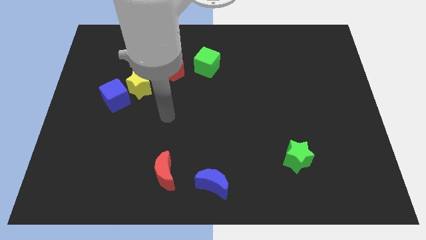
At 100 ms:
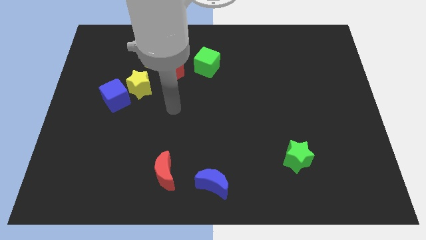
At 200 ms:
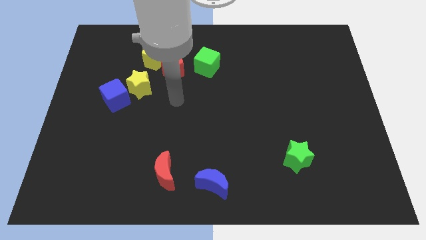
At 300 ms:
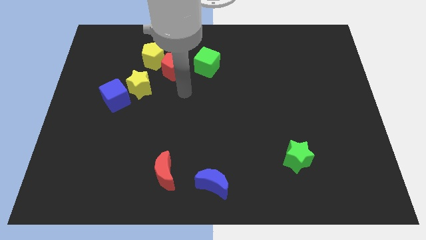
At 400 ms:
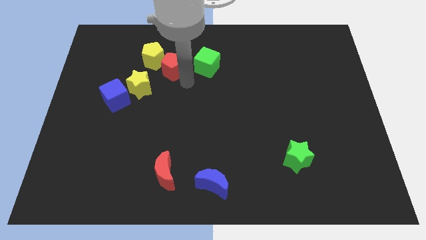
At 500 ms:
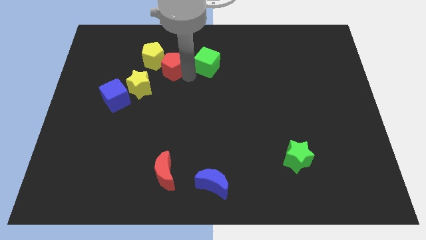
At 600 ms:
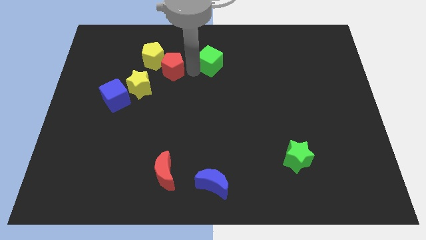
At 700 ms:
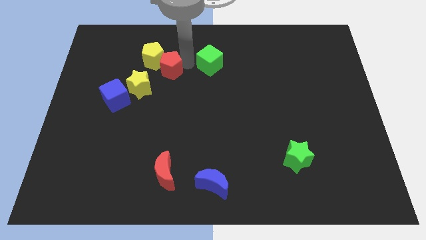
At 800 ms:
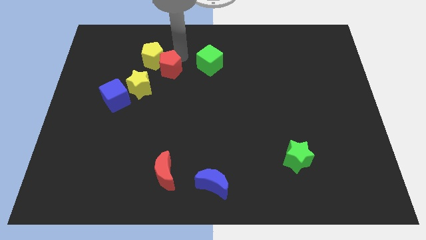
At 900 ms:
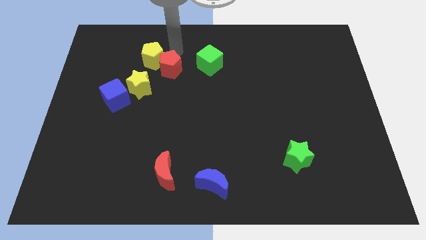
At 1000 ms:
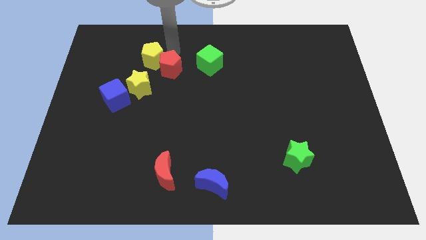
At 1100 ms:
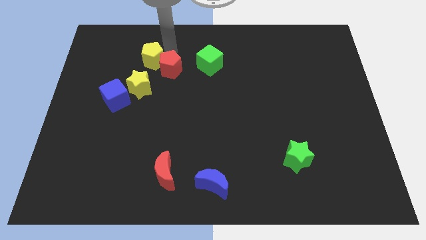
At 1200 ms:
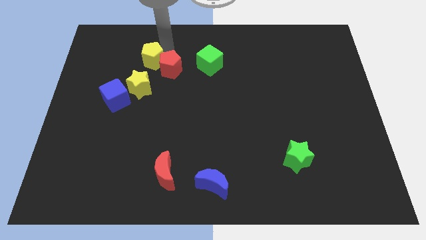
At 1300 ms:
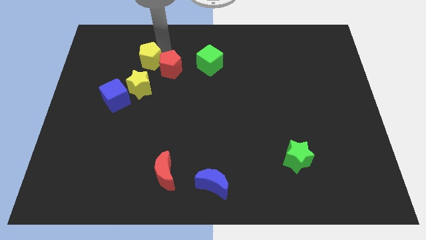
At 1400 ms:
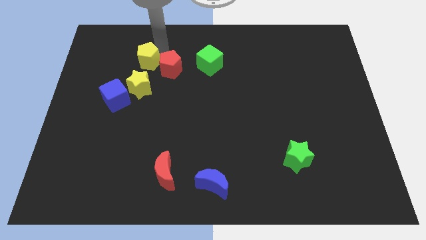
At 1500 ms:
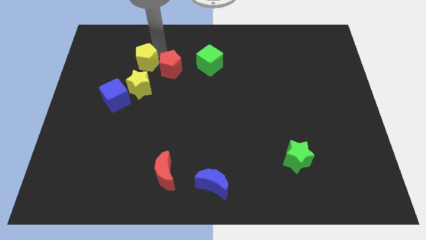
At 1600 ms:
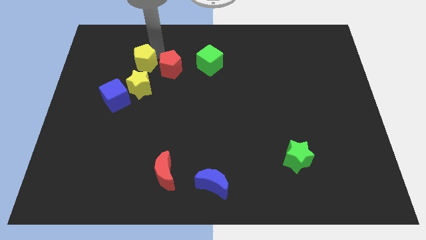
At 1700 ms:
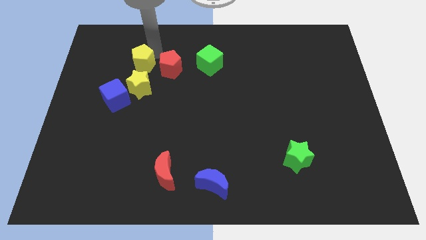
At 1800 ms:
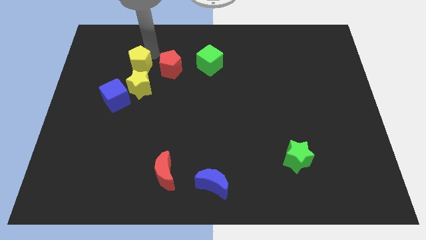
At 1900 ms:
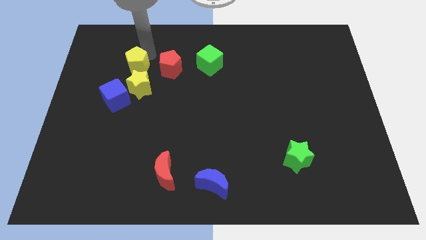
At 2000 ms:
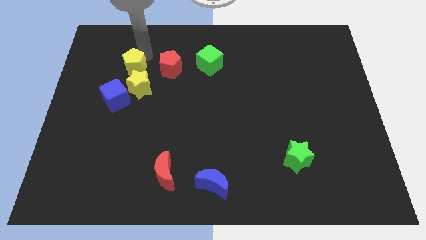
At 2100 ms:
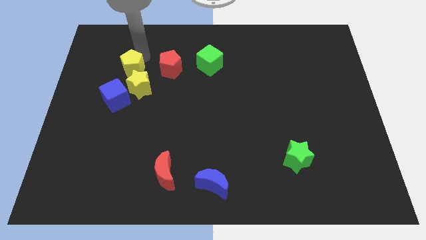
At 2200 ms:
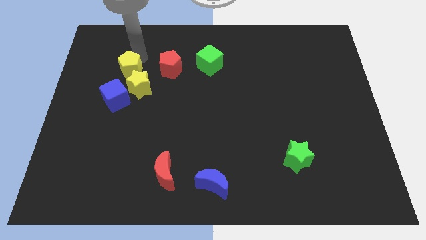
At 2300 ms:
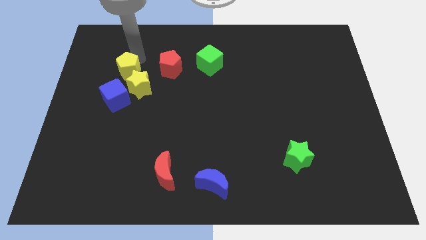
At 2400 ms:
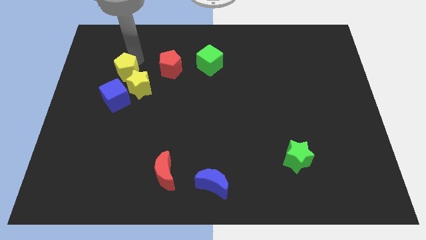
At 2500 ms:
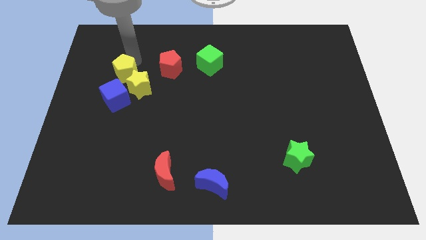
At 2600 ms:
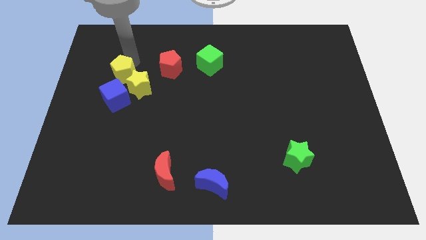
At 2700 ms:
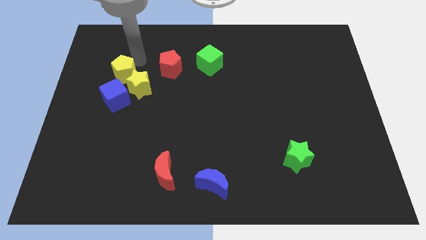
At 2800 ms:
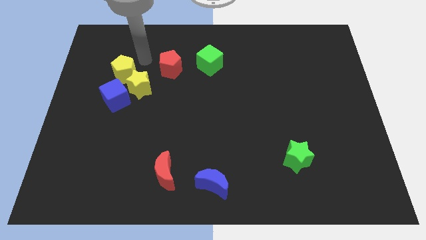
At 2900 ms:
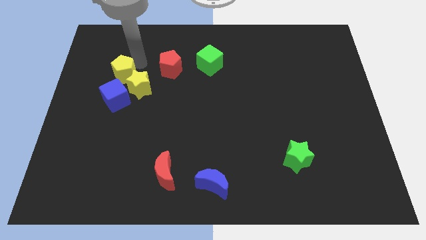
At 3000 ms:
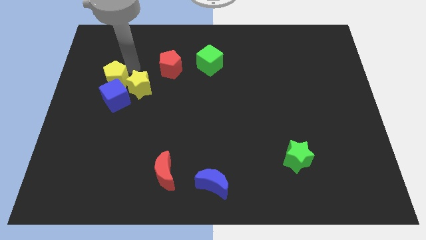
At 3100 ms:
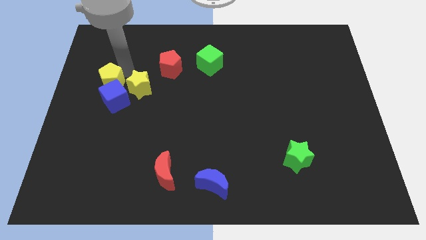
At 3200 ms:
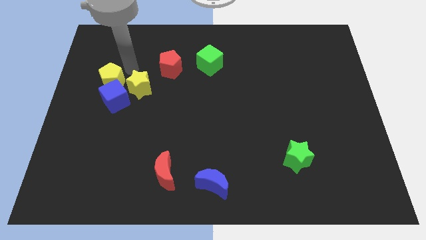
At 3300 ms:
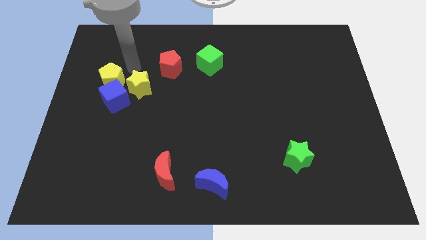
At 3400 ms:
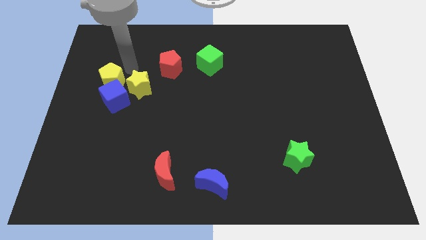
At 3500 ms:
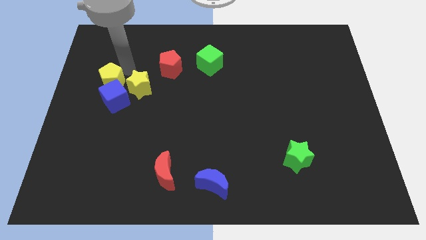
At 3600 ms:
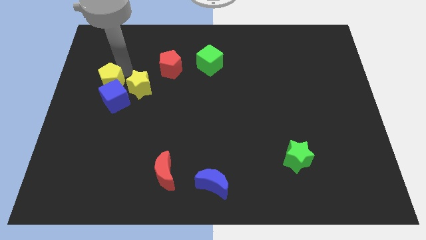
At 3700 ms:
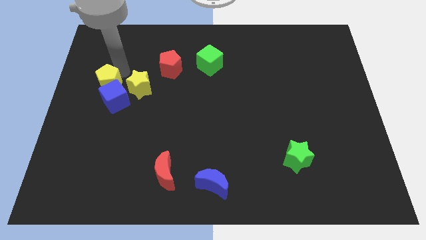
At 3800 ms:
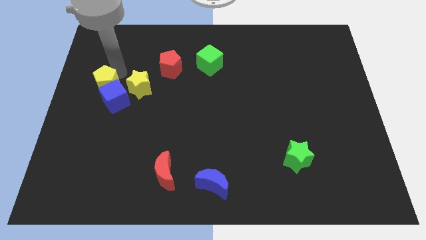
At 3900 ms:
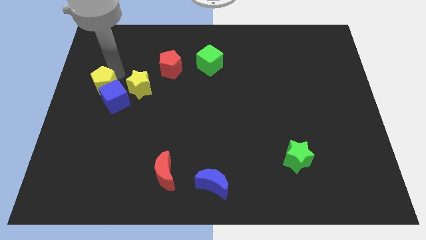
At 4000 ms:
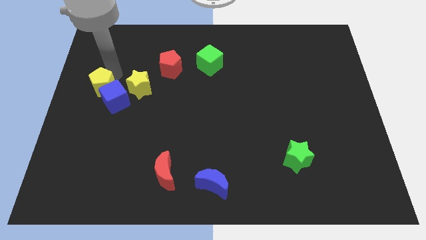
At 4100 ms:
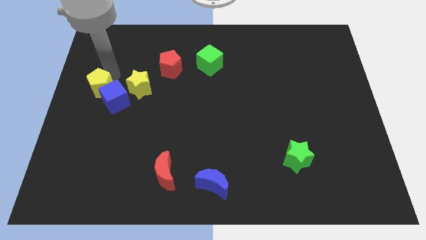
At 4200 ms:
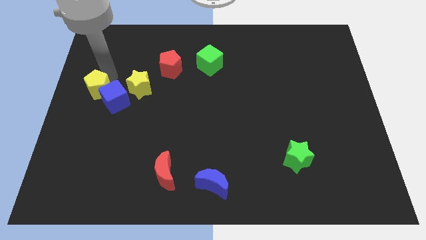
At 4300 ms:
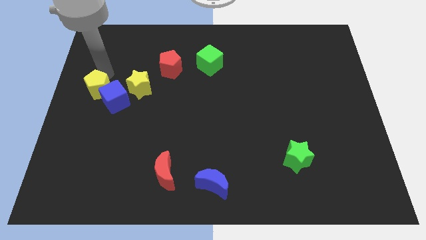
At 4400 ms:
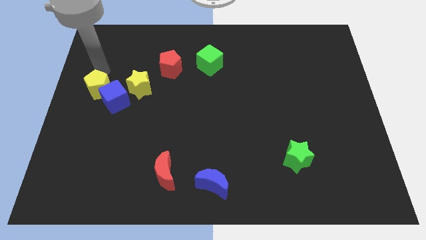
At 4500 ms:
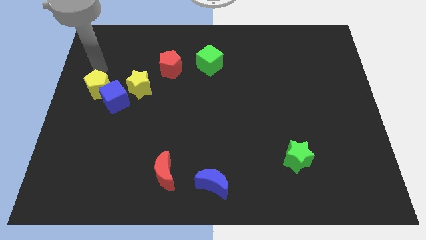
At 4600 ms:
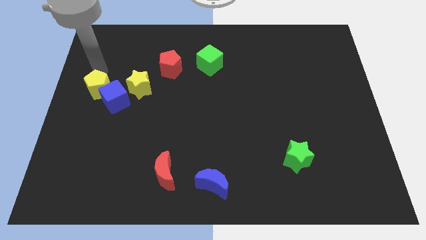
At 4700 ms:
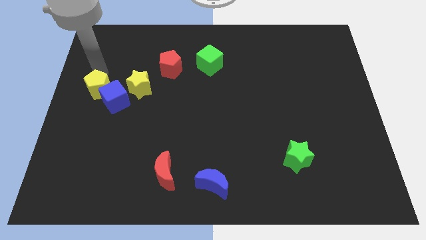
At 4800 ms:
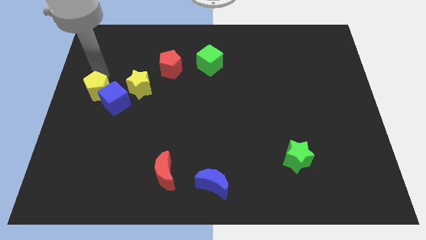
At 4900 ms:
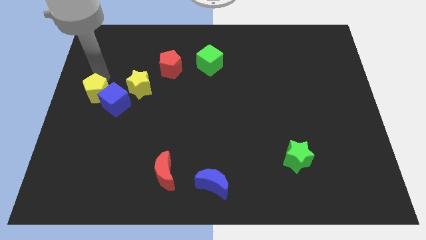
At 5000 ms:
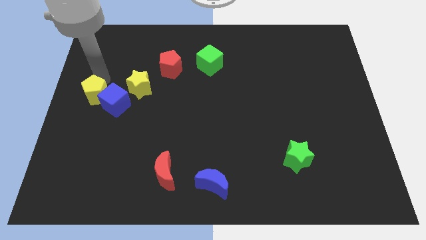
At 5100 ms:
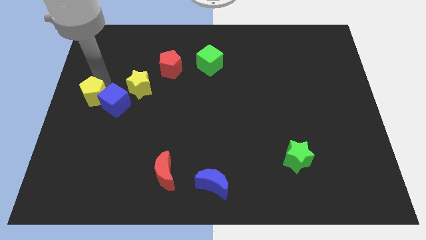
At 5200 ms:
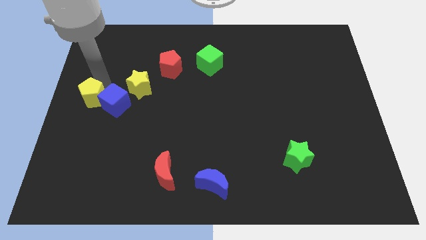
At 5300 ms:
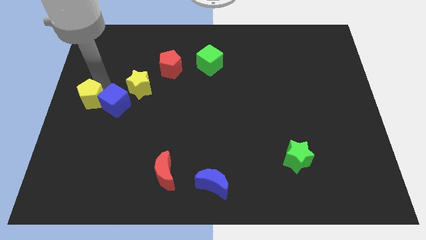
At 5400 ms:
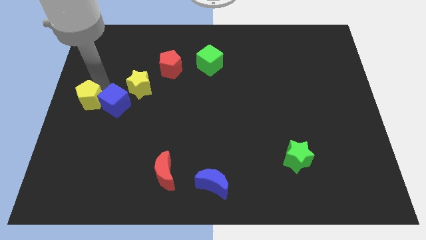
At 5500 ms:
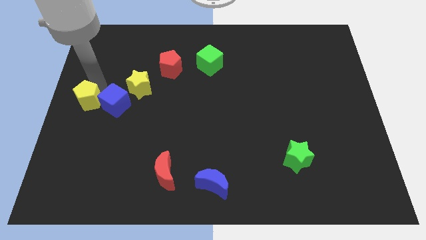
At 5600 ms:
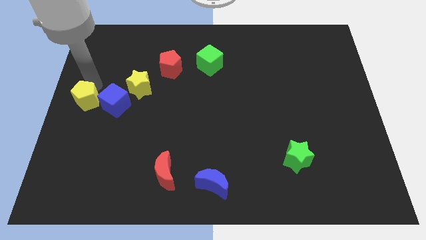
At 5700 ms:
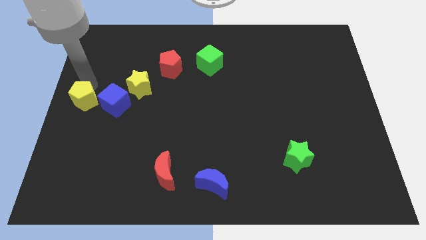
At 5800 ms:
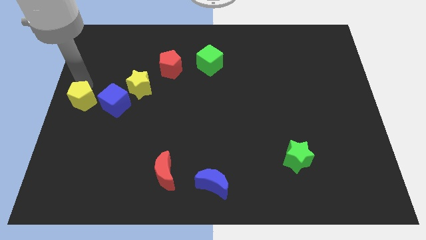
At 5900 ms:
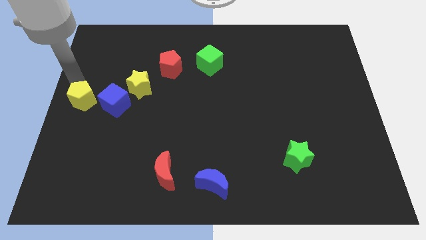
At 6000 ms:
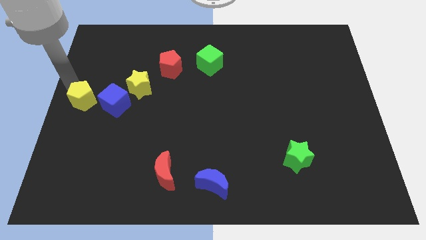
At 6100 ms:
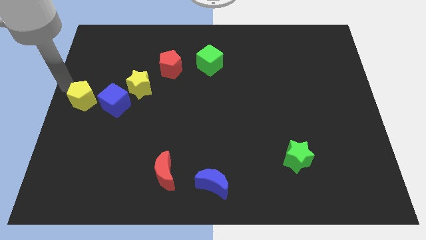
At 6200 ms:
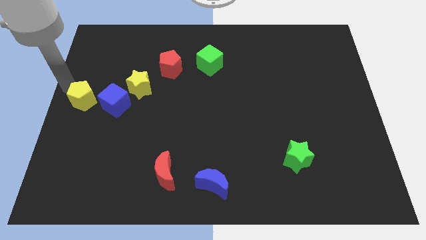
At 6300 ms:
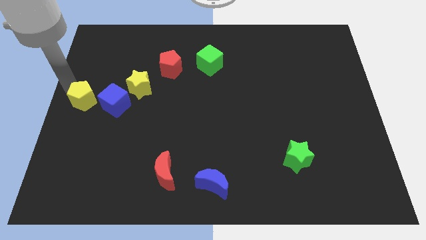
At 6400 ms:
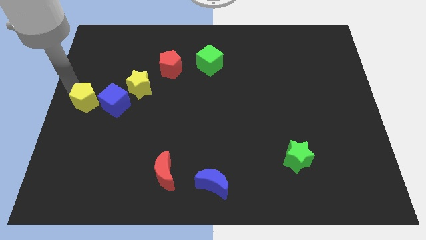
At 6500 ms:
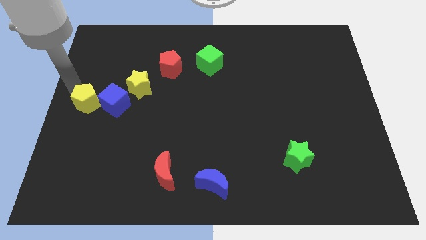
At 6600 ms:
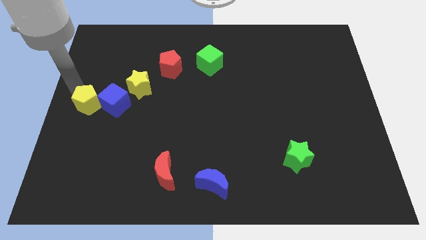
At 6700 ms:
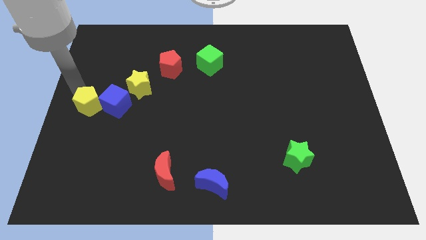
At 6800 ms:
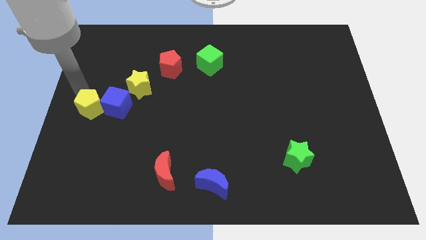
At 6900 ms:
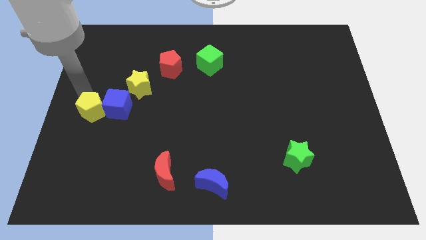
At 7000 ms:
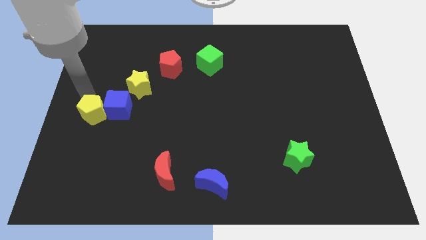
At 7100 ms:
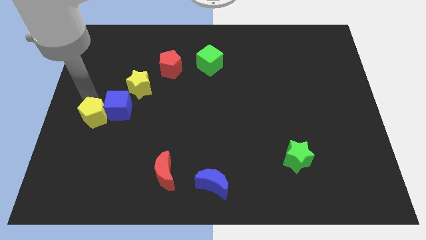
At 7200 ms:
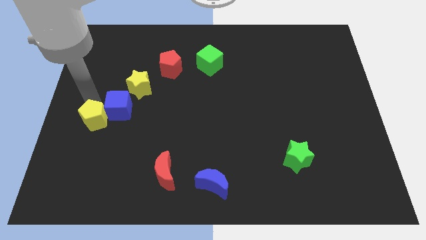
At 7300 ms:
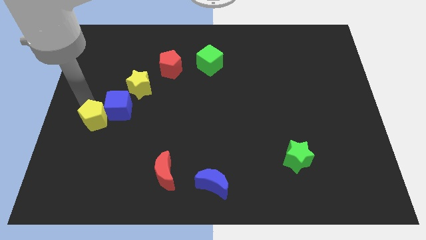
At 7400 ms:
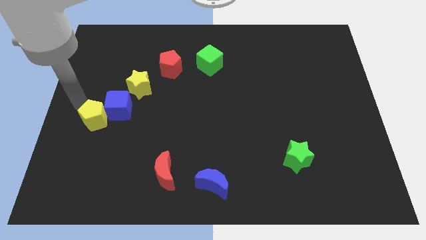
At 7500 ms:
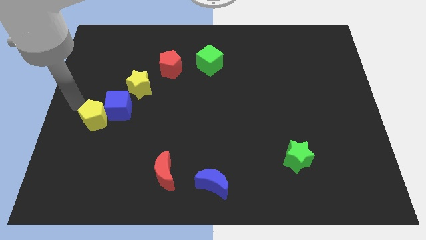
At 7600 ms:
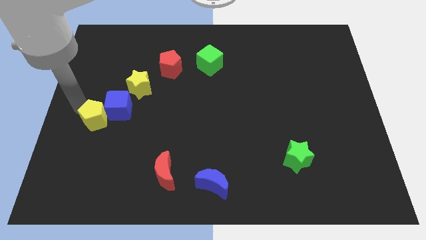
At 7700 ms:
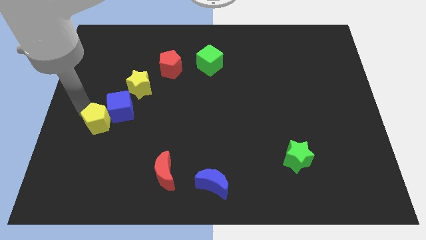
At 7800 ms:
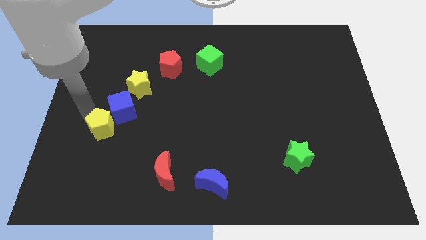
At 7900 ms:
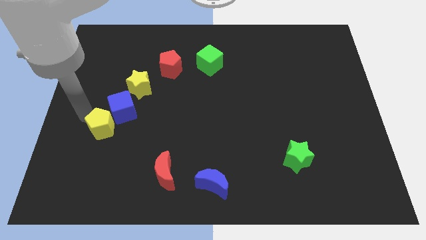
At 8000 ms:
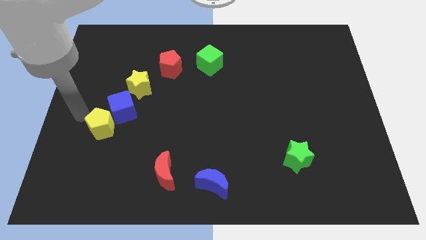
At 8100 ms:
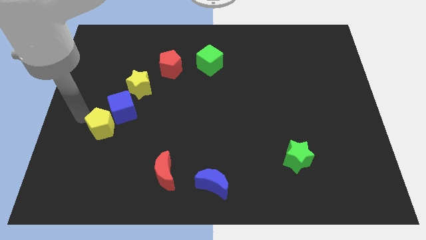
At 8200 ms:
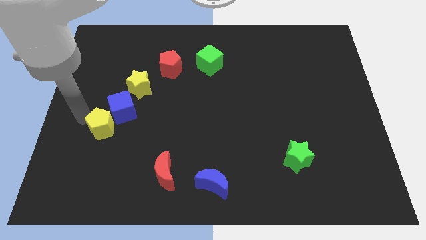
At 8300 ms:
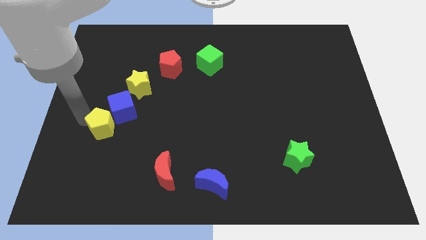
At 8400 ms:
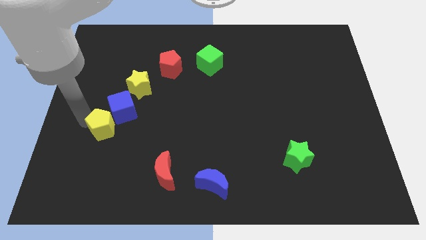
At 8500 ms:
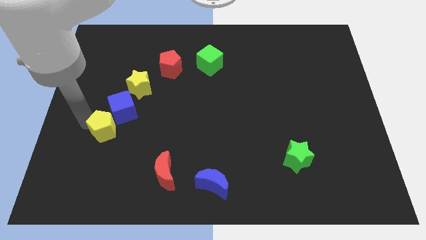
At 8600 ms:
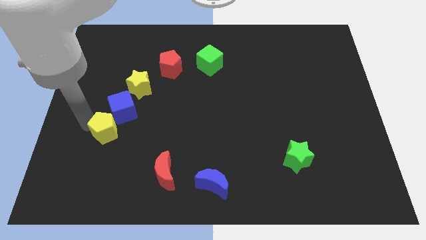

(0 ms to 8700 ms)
push the yellow pentagon downwards
